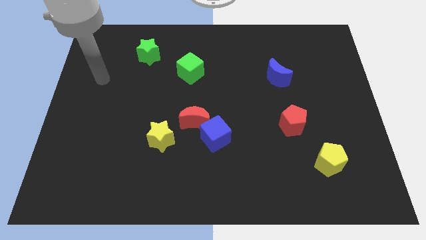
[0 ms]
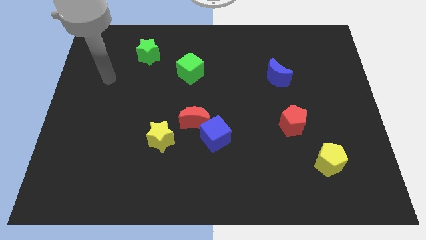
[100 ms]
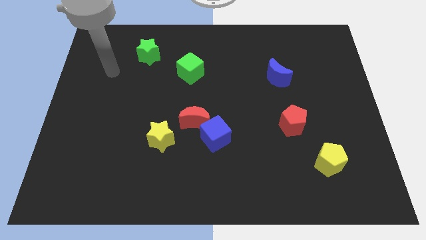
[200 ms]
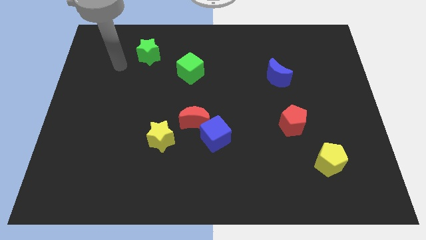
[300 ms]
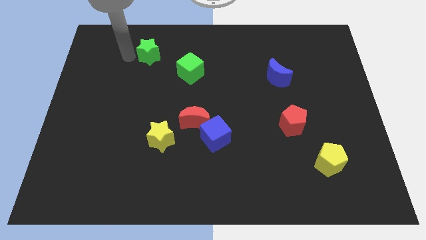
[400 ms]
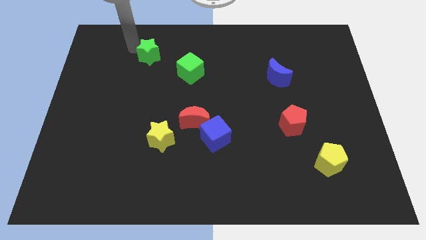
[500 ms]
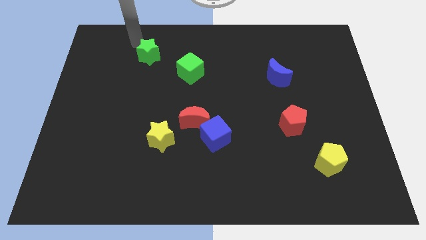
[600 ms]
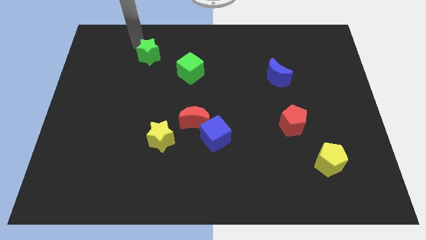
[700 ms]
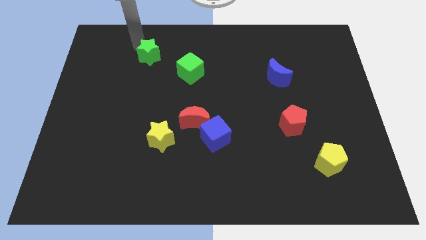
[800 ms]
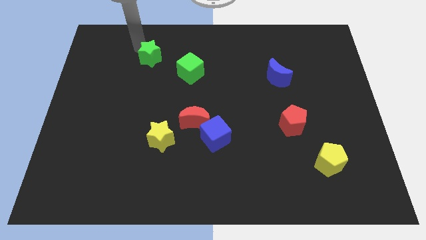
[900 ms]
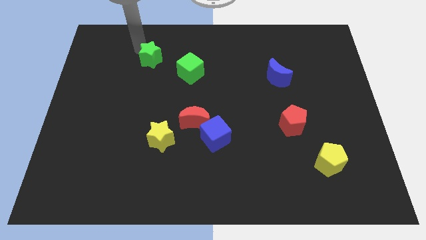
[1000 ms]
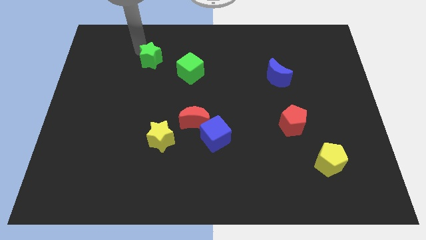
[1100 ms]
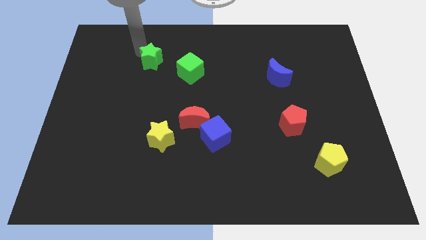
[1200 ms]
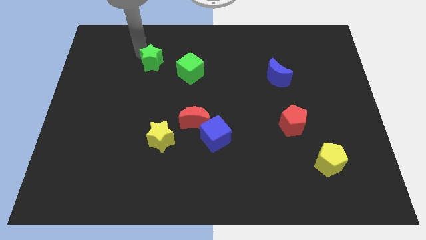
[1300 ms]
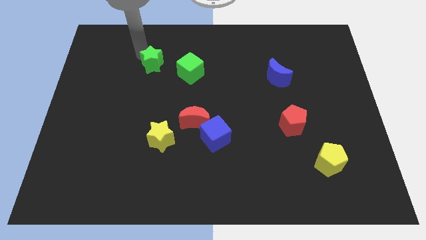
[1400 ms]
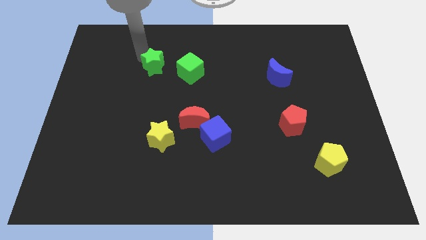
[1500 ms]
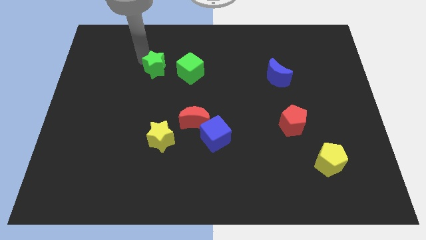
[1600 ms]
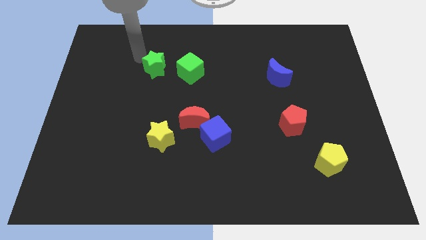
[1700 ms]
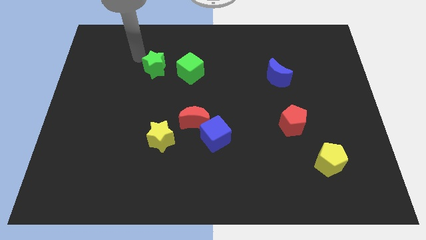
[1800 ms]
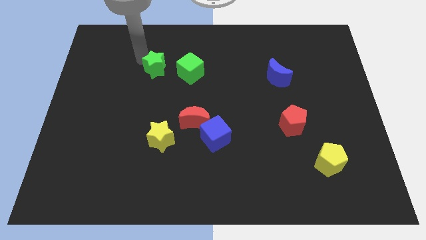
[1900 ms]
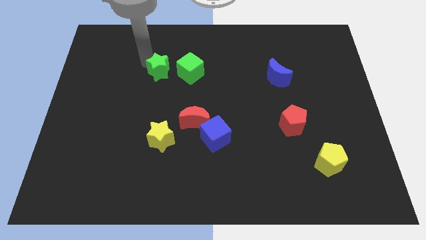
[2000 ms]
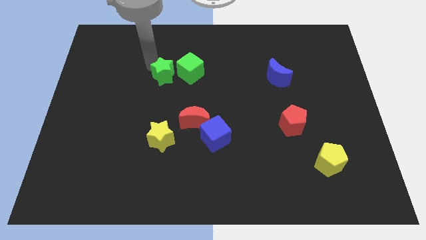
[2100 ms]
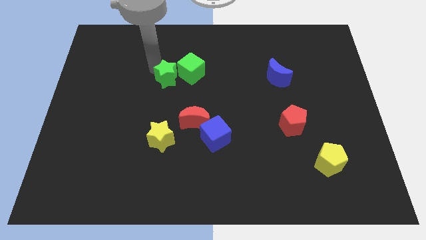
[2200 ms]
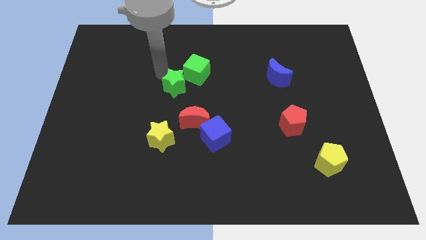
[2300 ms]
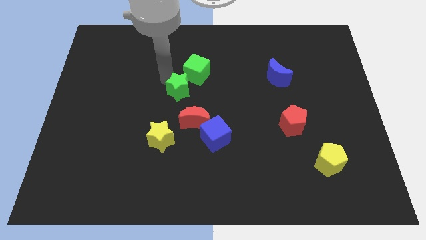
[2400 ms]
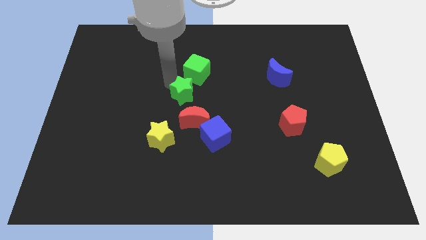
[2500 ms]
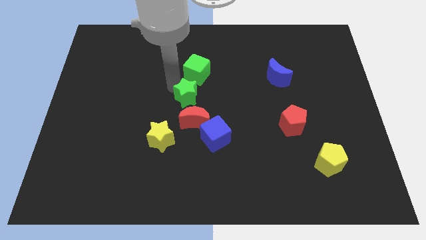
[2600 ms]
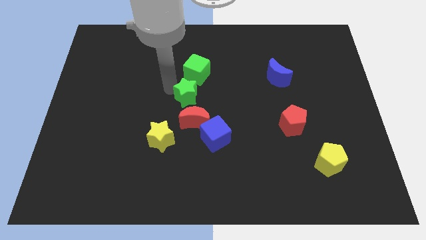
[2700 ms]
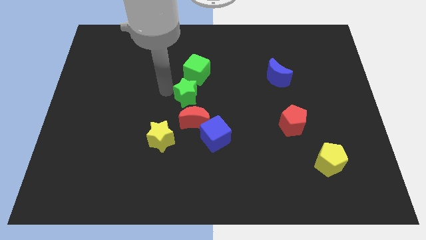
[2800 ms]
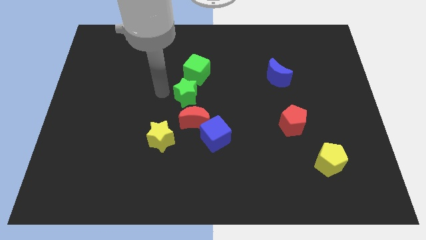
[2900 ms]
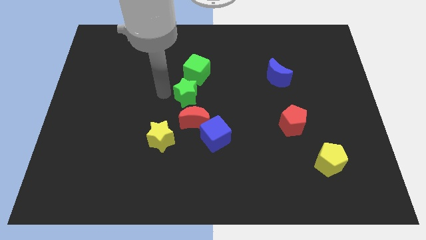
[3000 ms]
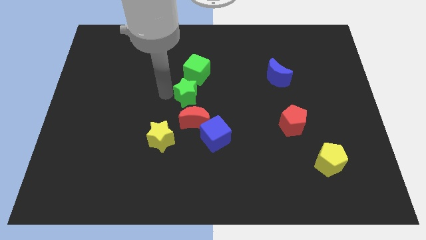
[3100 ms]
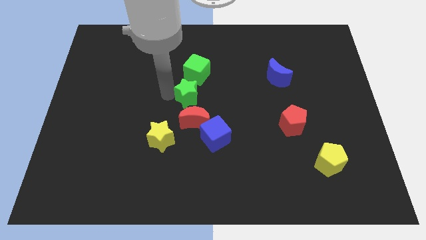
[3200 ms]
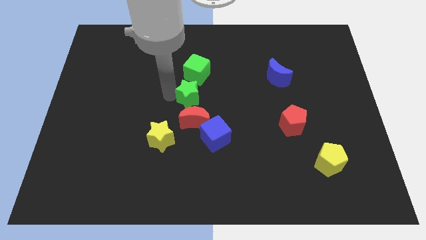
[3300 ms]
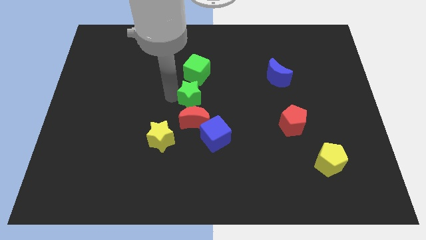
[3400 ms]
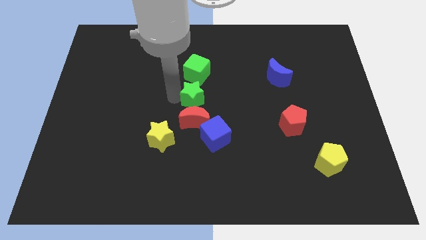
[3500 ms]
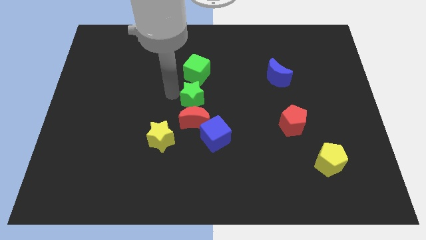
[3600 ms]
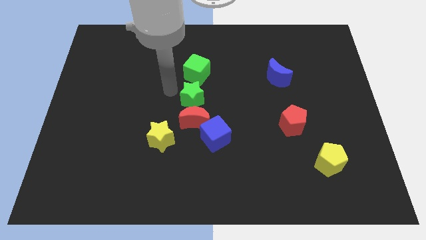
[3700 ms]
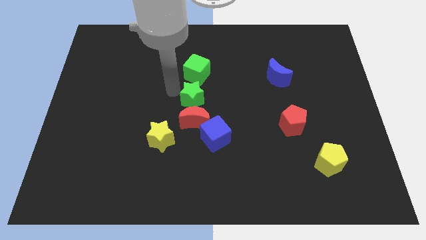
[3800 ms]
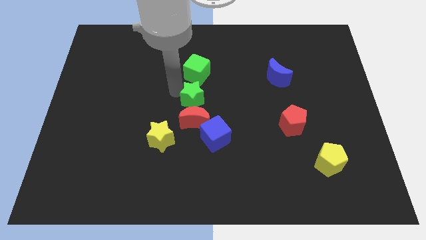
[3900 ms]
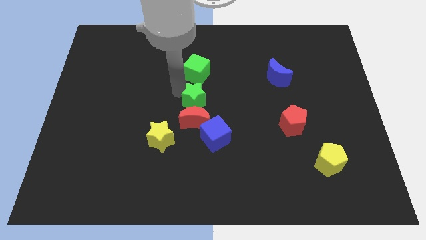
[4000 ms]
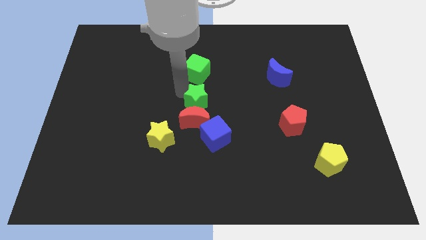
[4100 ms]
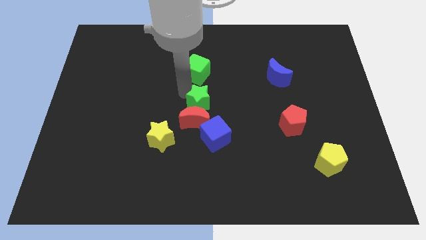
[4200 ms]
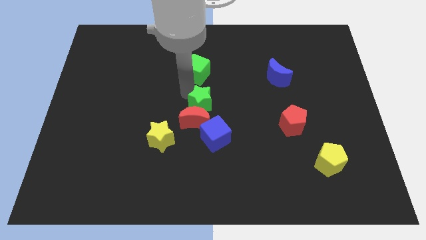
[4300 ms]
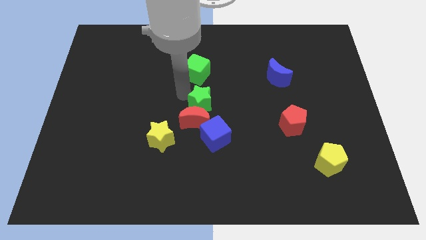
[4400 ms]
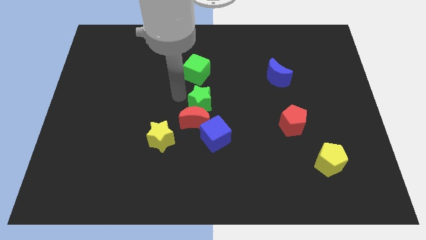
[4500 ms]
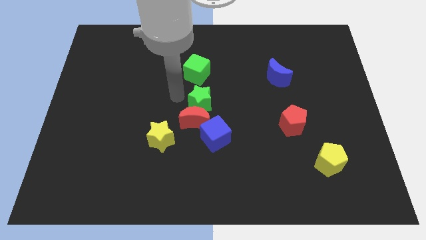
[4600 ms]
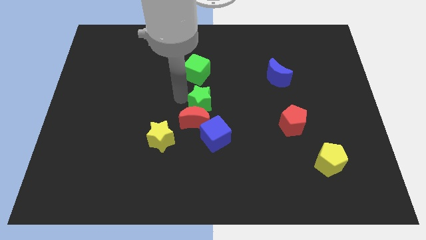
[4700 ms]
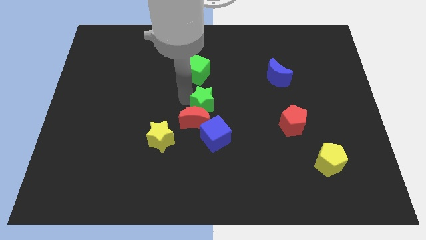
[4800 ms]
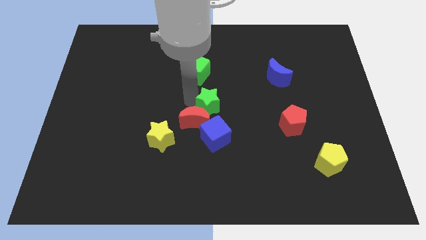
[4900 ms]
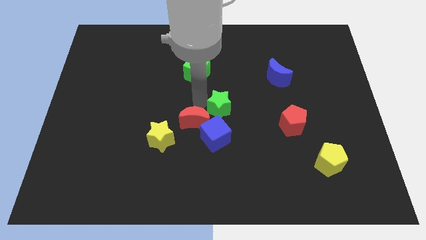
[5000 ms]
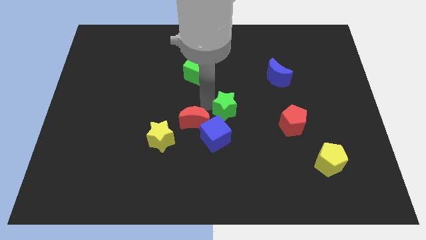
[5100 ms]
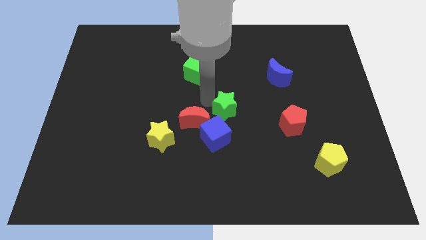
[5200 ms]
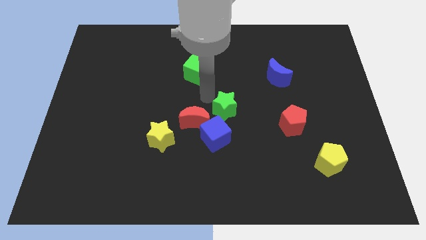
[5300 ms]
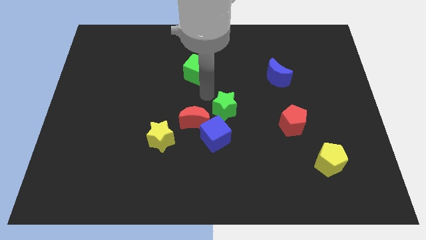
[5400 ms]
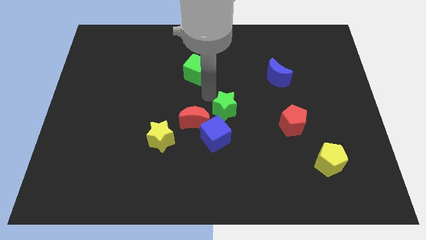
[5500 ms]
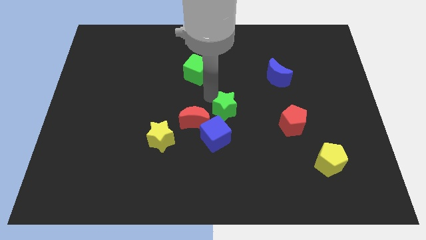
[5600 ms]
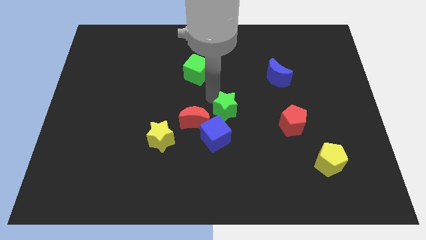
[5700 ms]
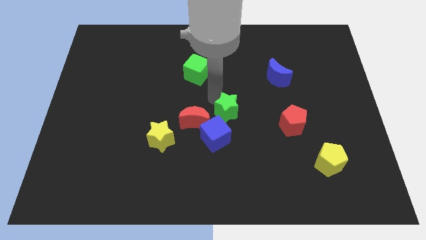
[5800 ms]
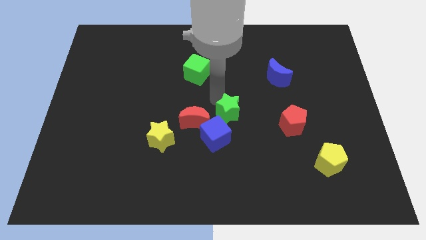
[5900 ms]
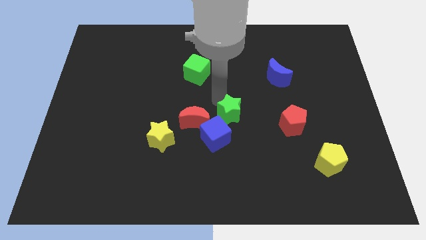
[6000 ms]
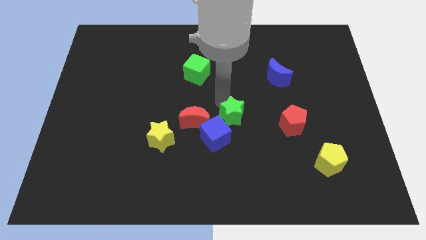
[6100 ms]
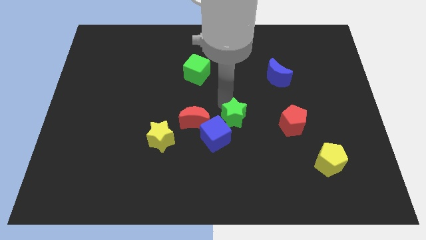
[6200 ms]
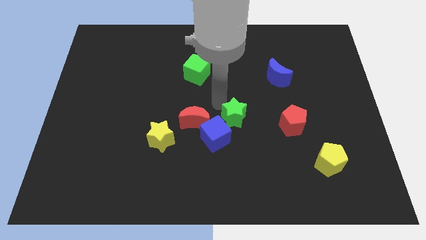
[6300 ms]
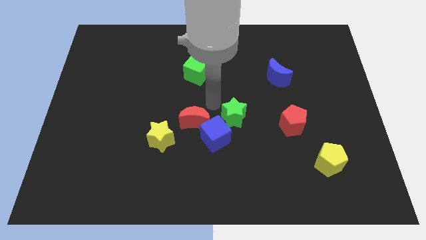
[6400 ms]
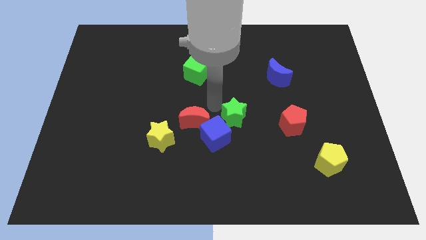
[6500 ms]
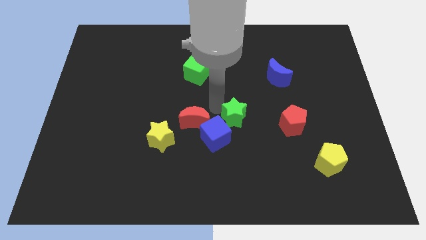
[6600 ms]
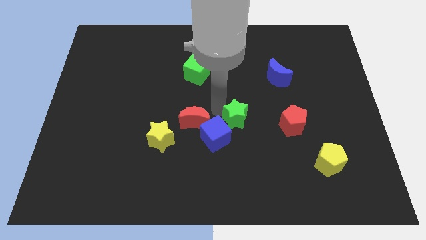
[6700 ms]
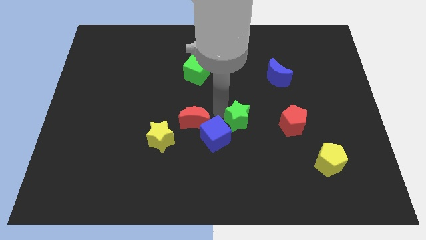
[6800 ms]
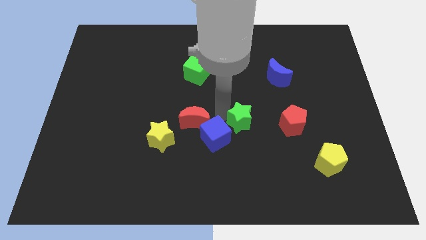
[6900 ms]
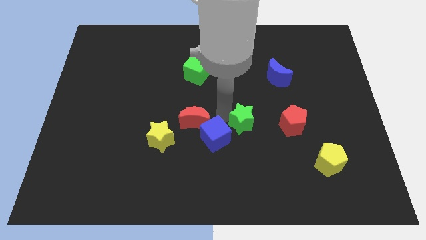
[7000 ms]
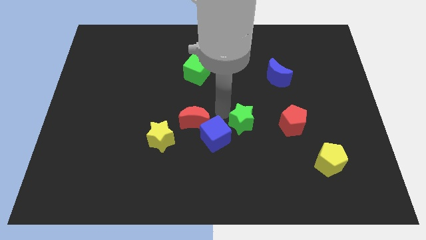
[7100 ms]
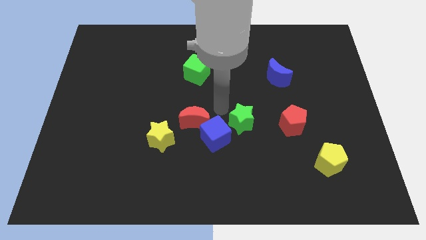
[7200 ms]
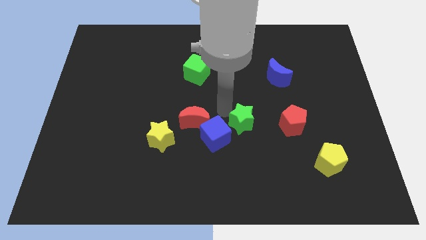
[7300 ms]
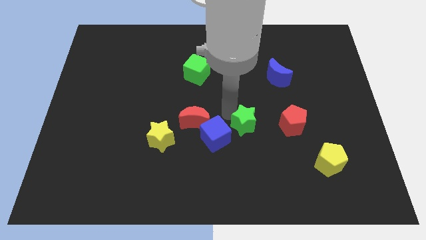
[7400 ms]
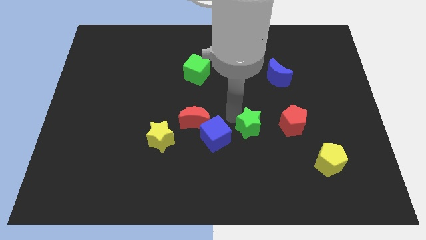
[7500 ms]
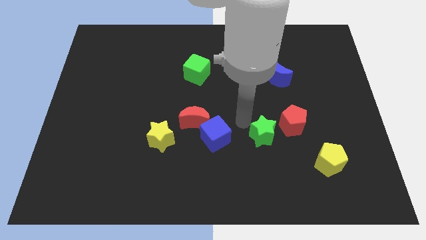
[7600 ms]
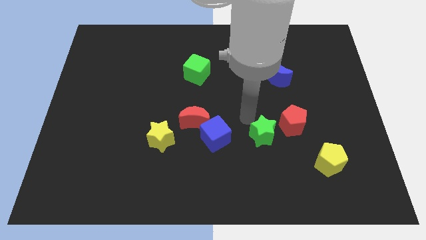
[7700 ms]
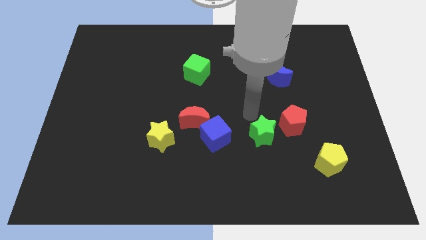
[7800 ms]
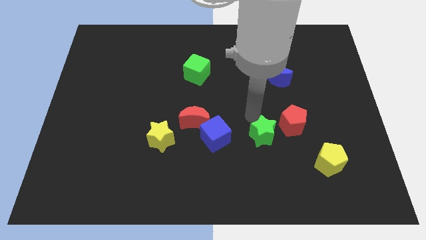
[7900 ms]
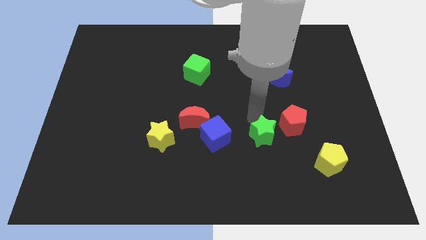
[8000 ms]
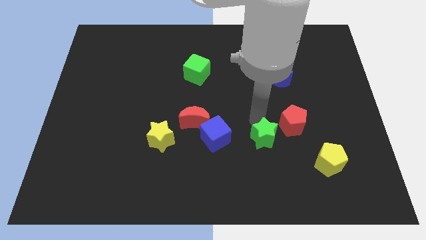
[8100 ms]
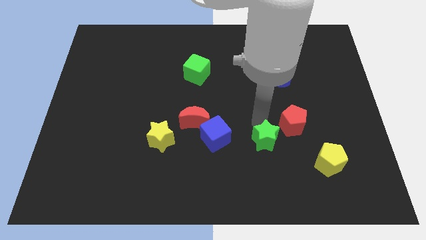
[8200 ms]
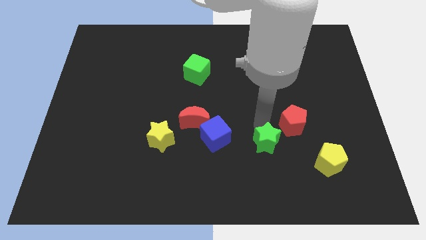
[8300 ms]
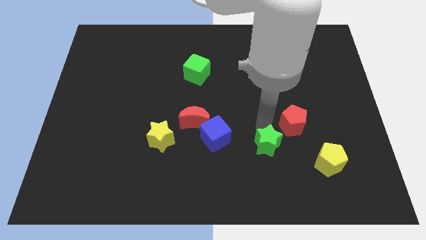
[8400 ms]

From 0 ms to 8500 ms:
push the green star left of the yellow pentagon
